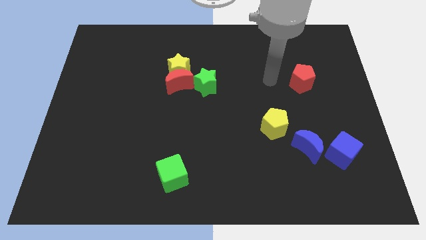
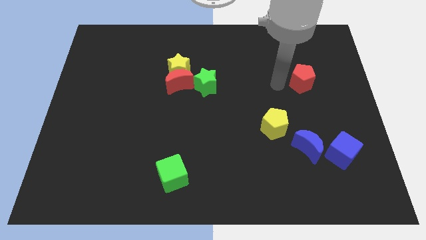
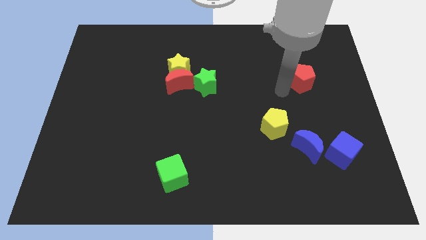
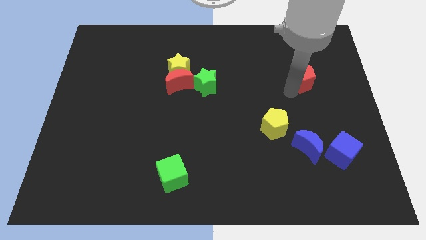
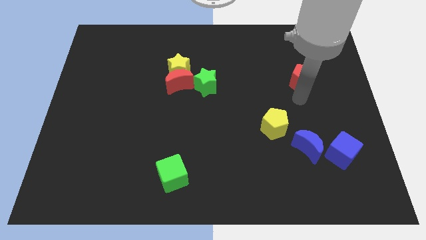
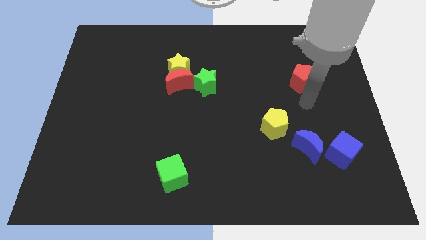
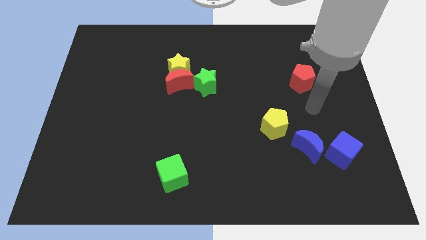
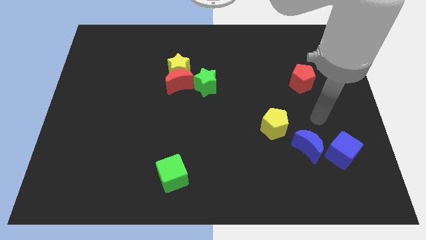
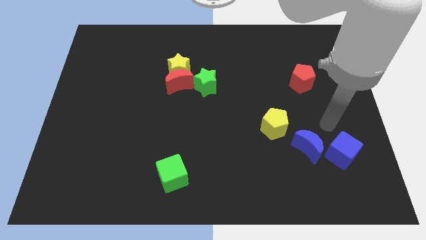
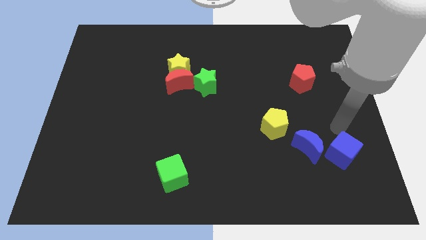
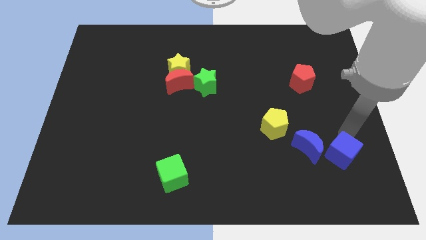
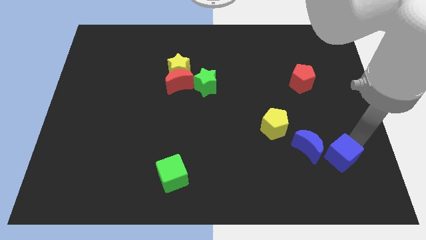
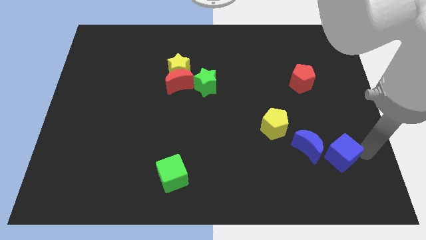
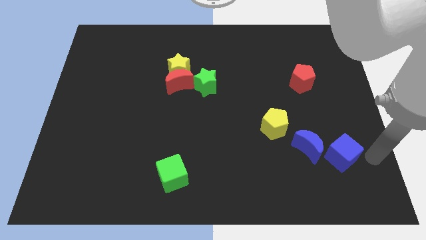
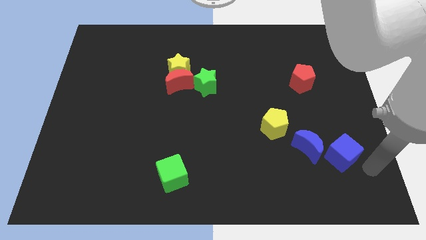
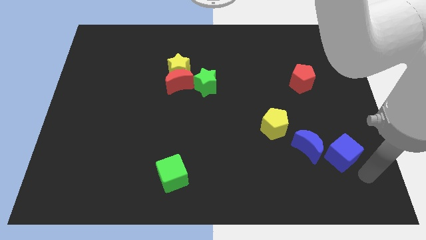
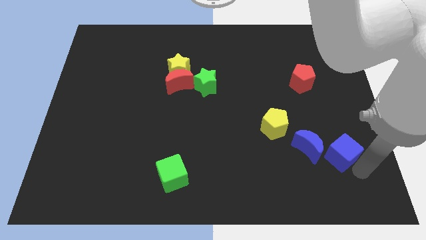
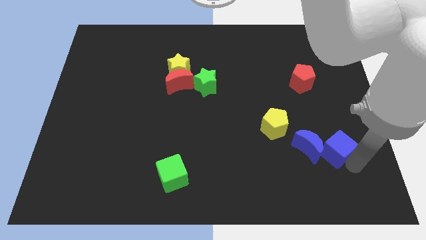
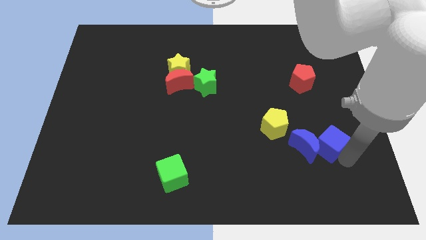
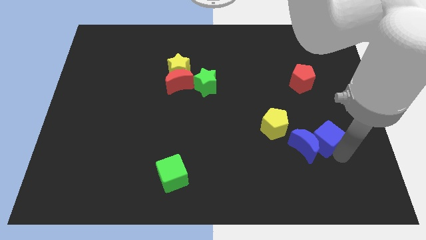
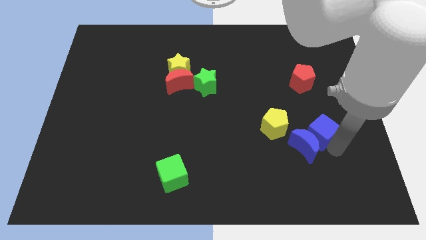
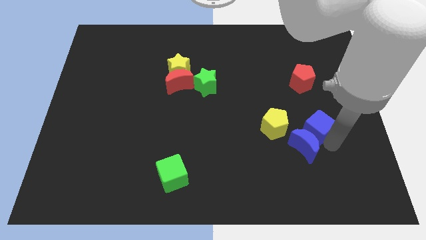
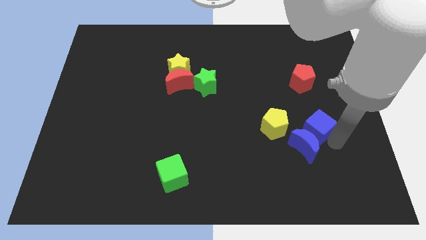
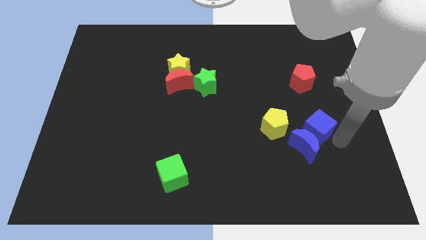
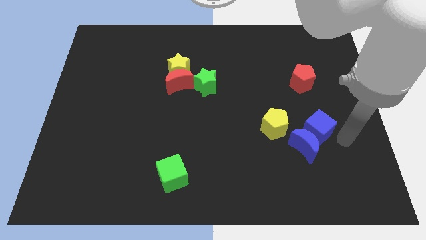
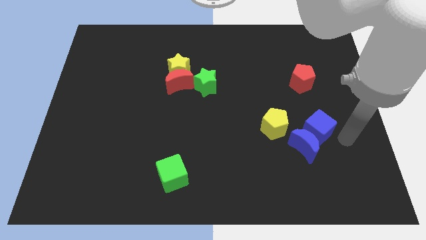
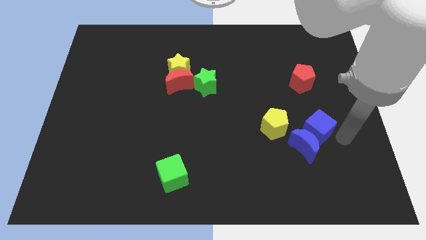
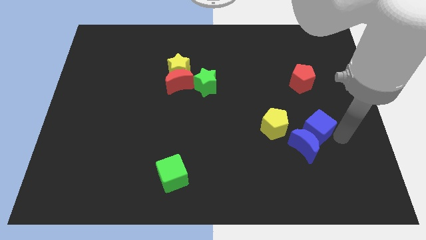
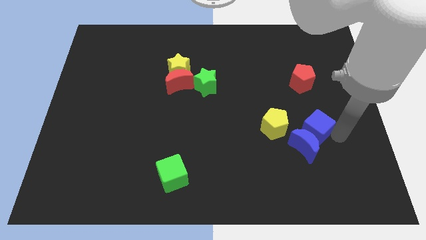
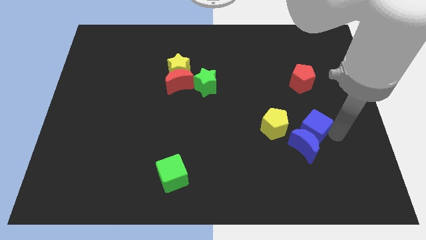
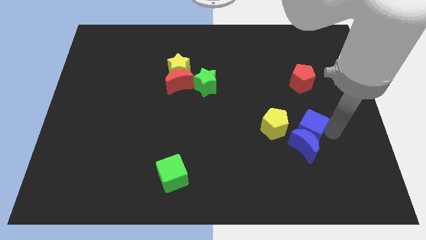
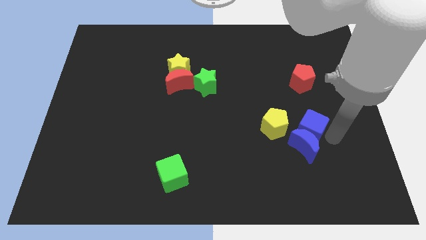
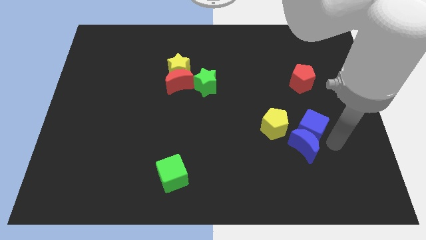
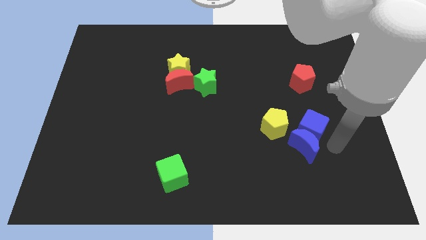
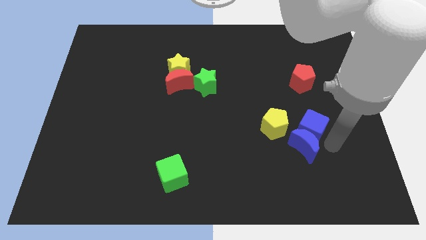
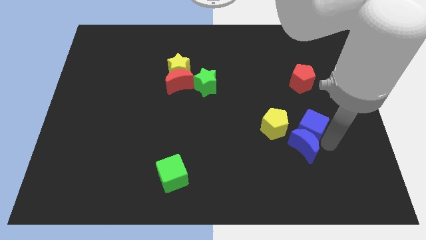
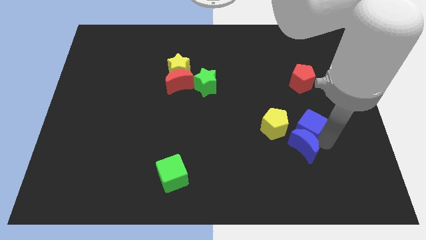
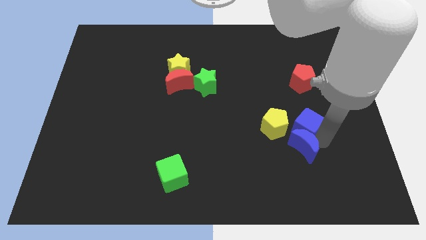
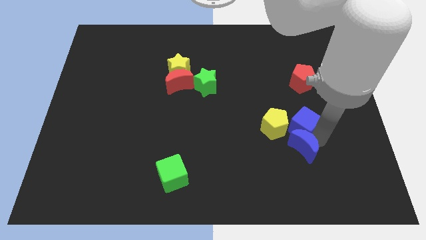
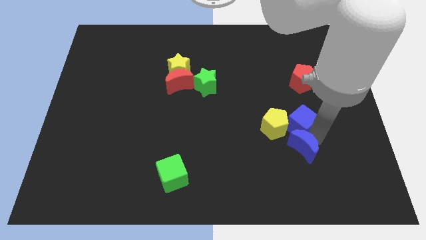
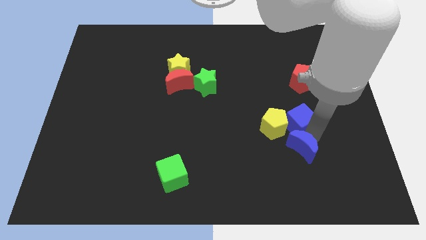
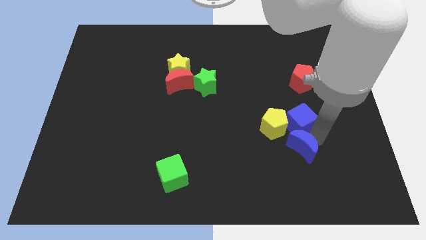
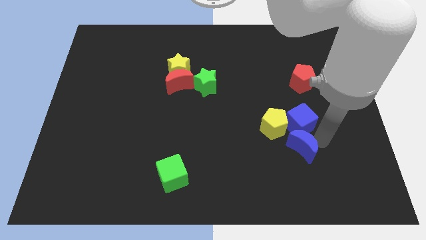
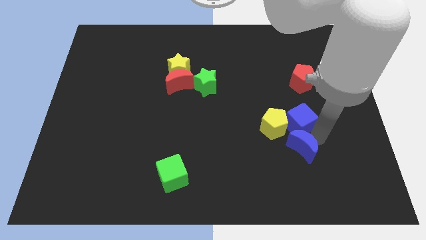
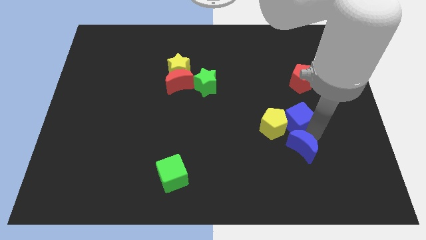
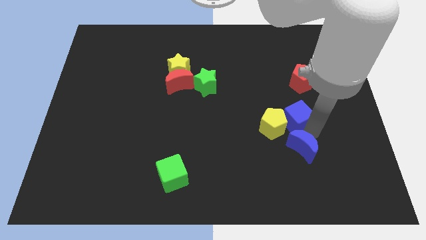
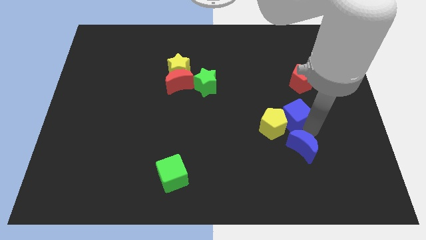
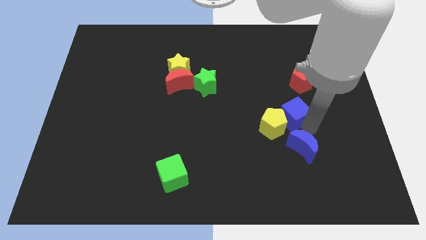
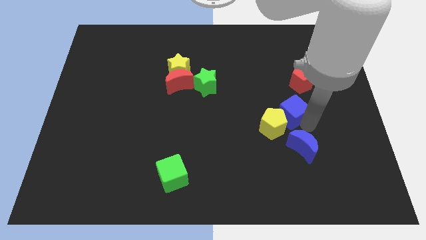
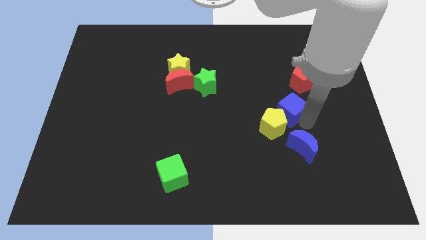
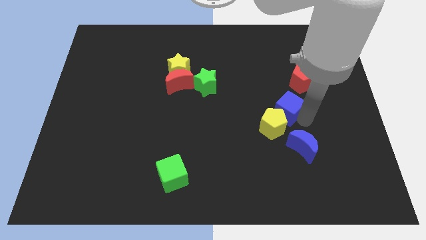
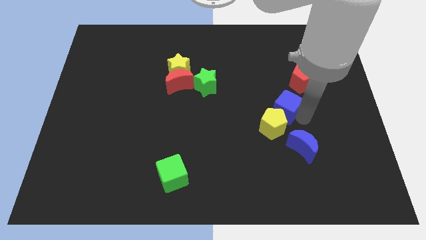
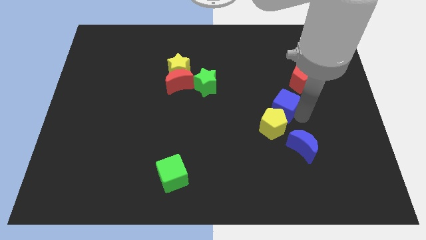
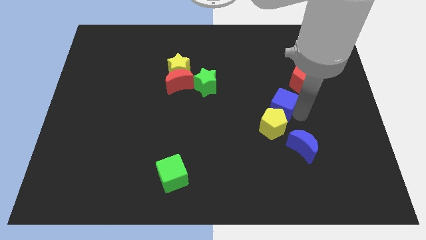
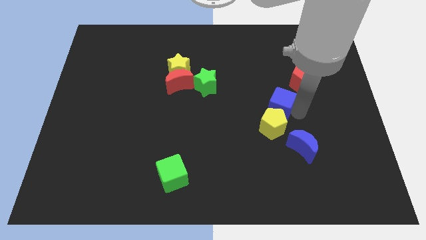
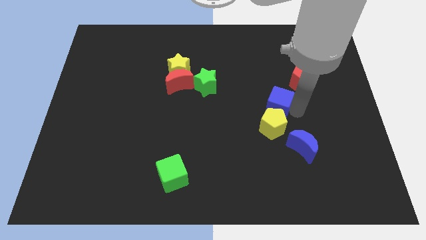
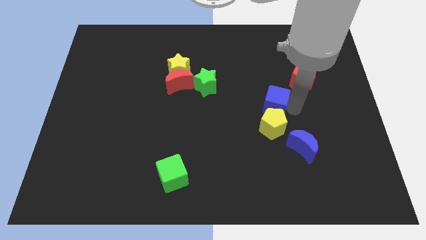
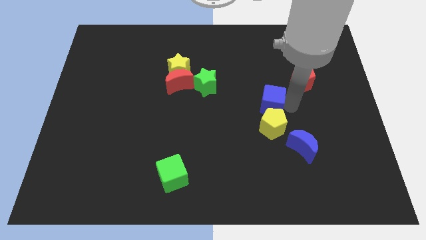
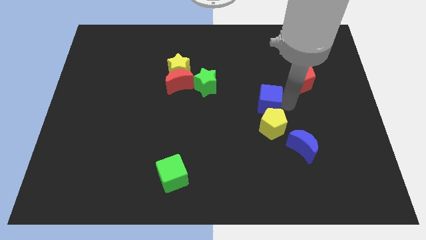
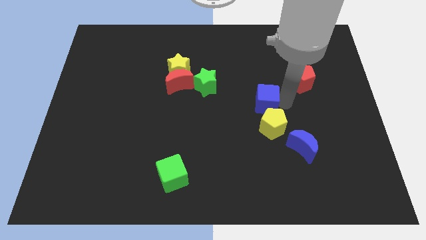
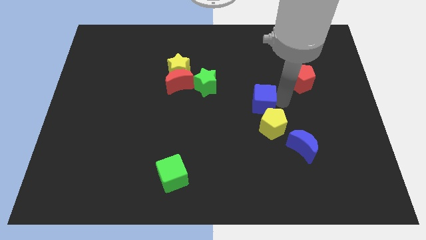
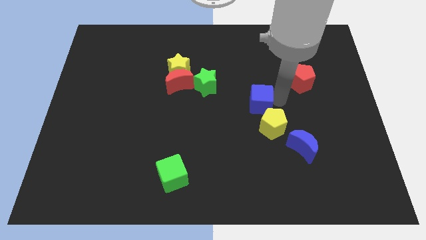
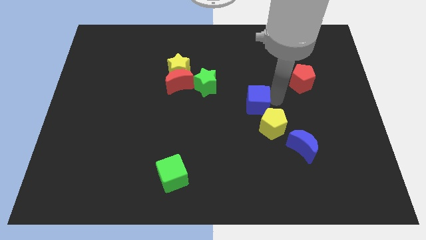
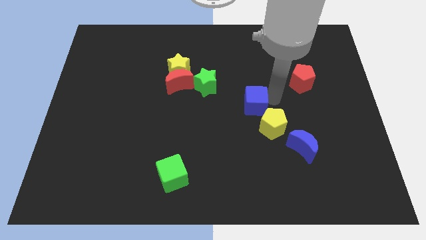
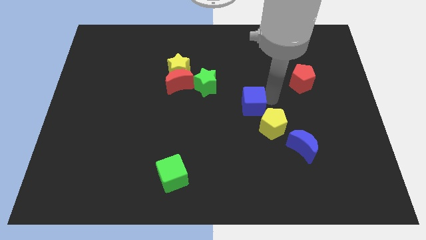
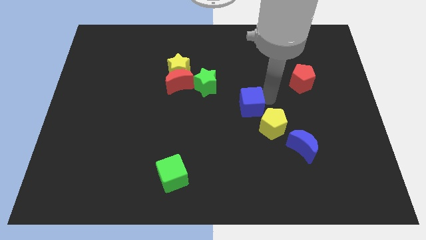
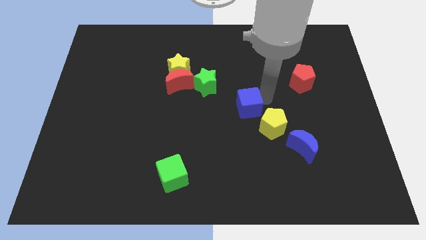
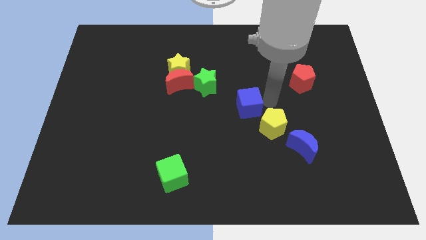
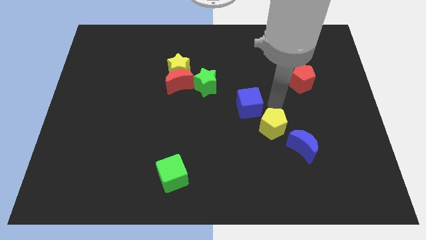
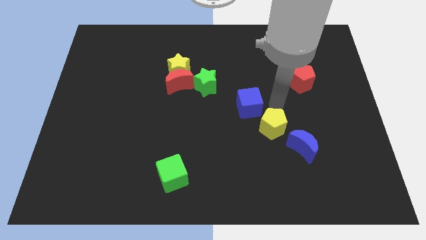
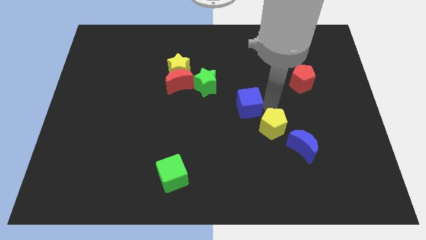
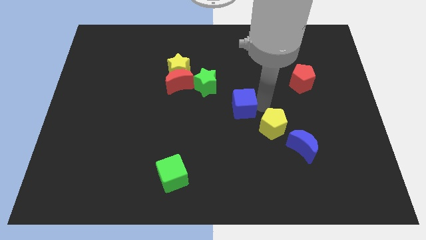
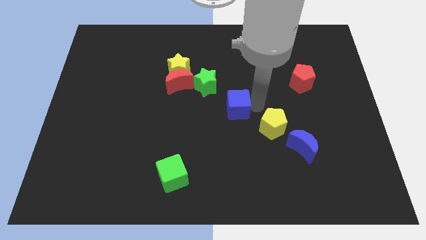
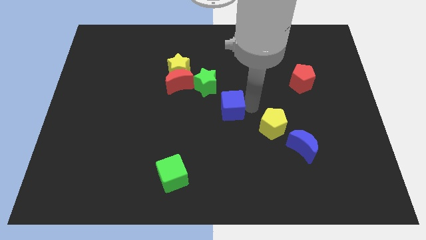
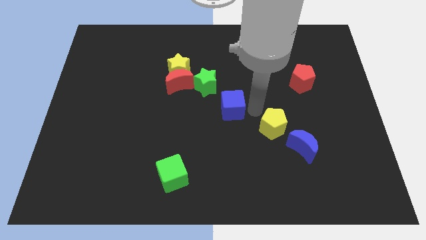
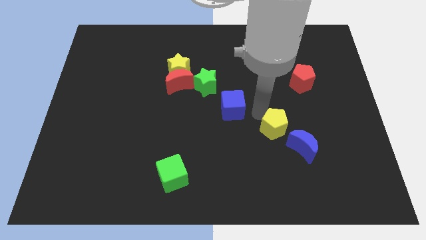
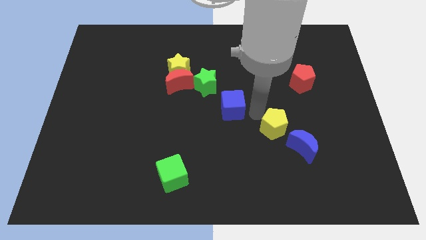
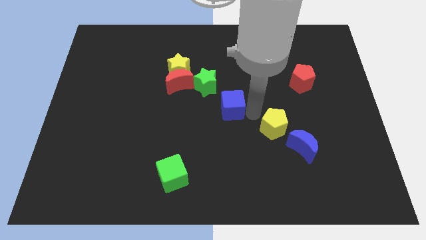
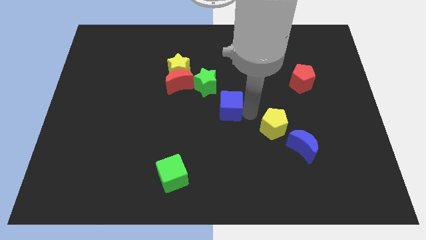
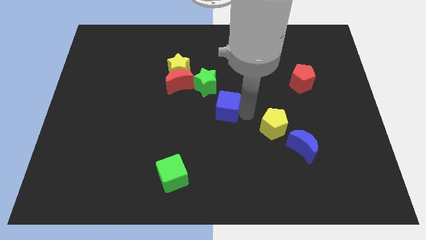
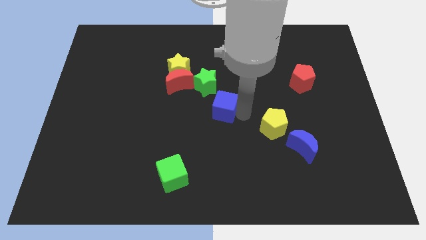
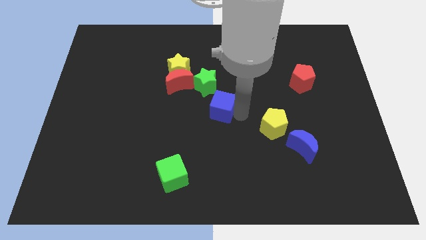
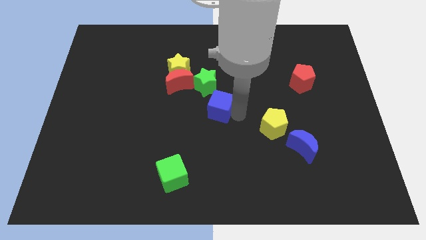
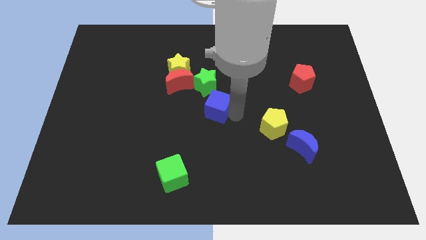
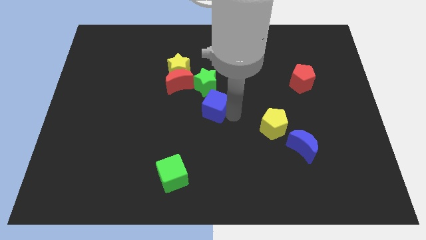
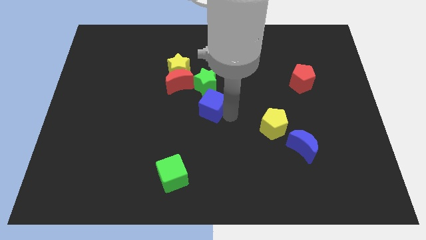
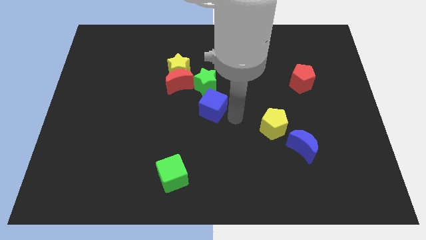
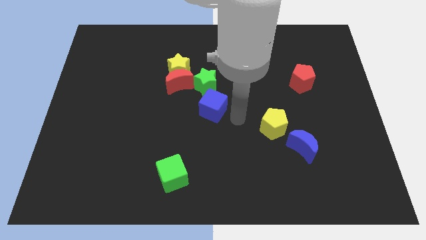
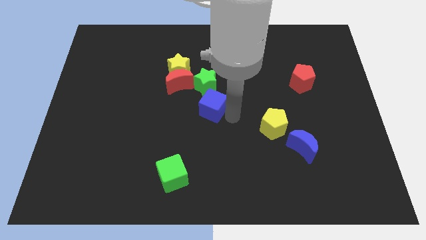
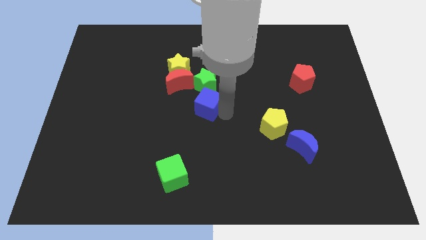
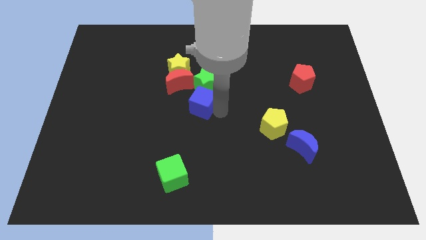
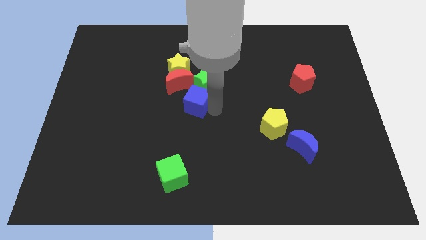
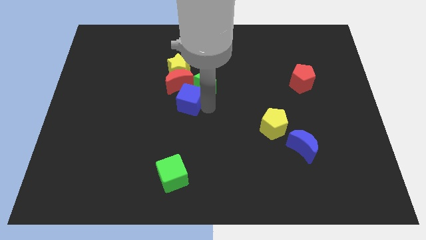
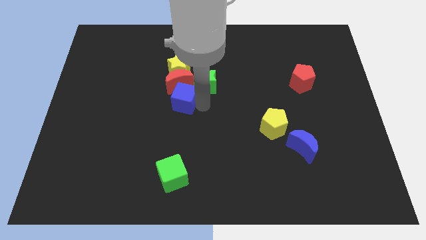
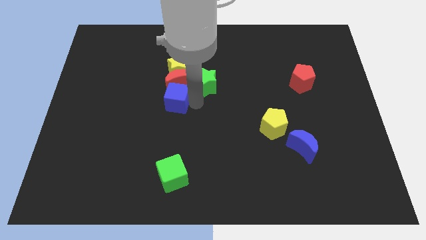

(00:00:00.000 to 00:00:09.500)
push the blue cube to the bottom left side of the red moon
